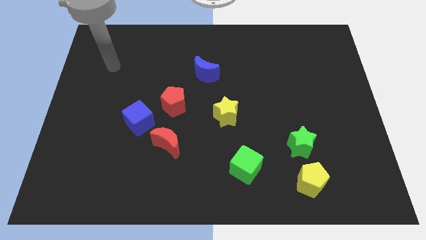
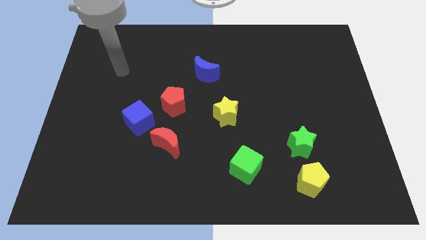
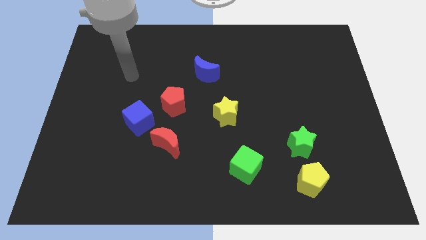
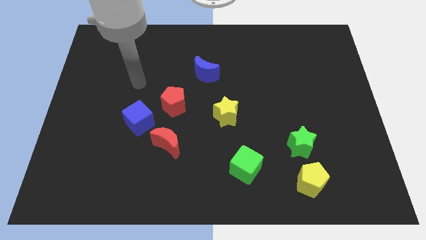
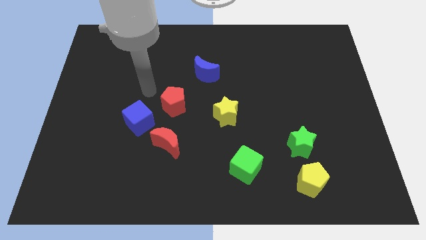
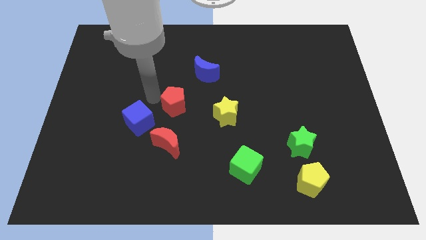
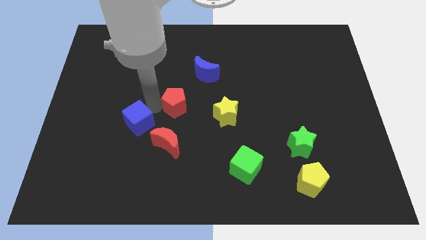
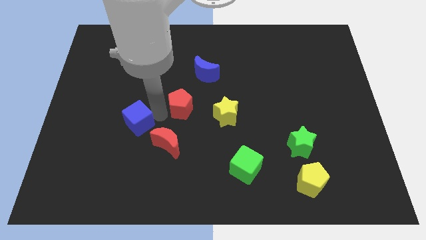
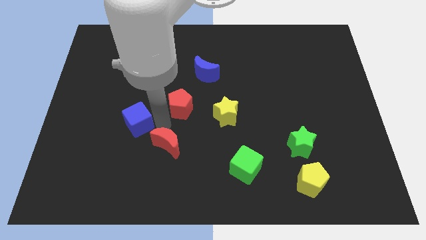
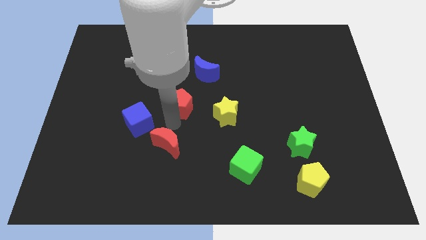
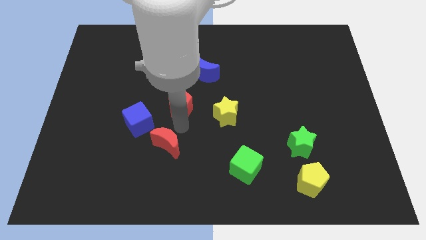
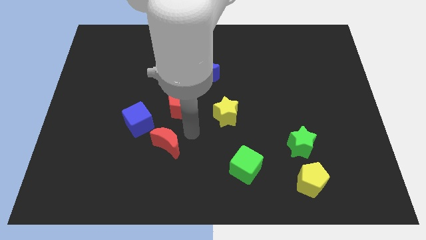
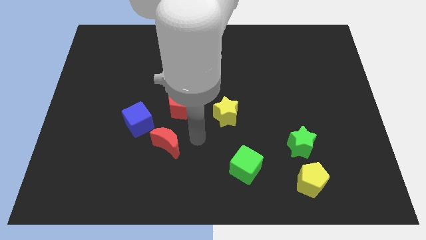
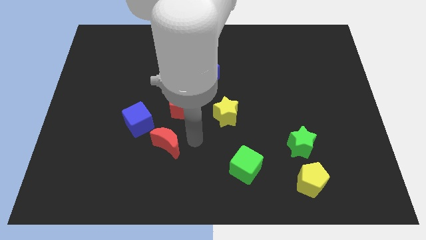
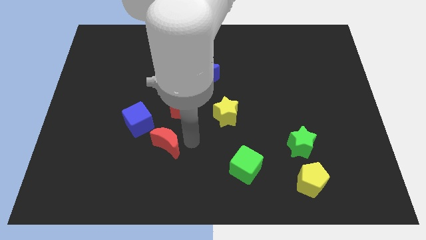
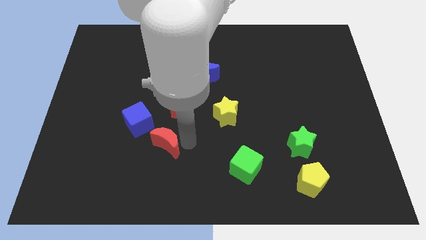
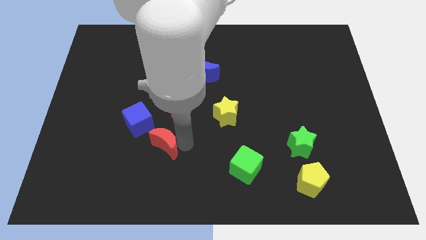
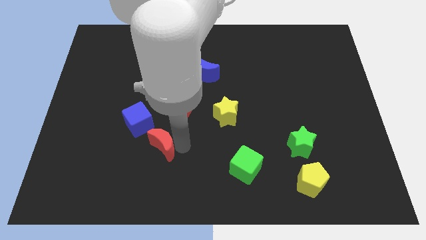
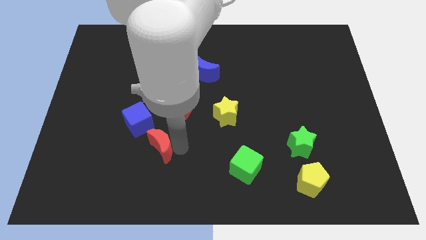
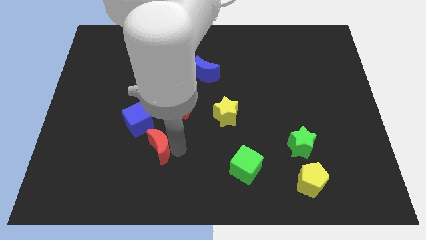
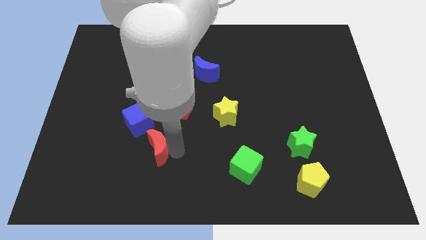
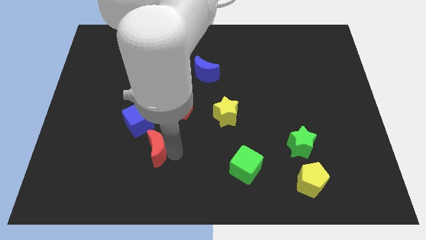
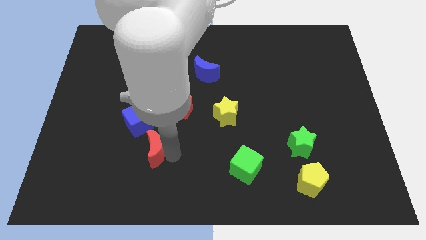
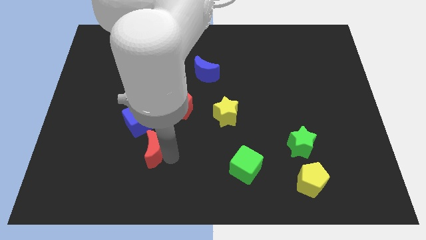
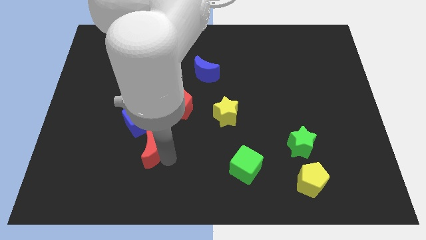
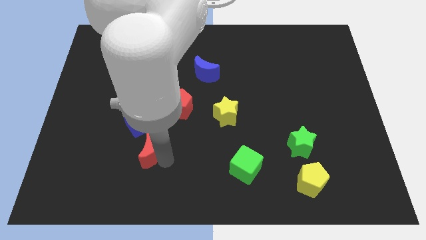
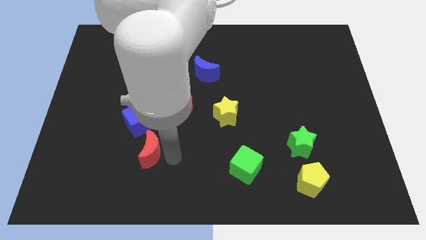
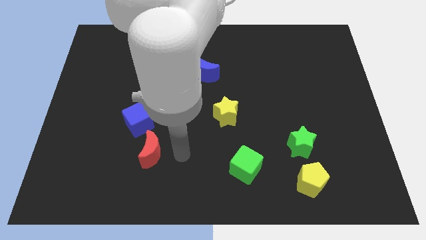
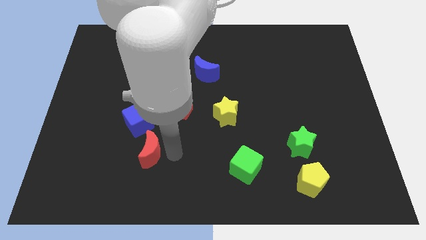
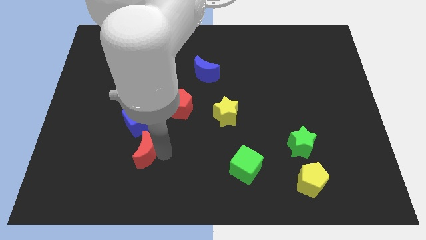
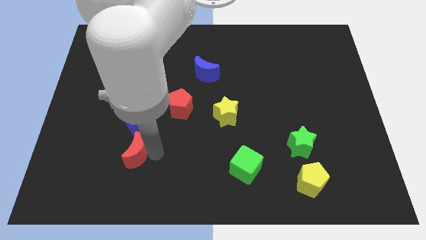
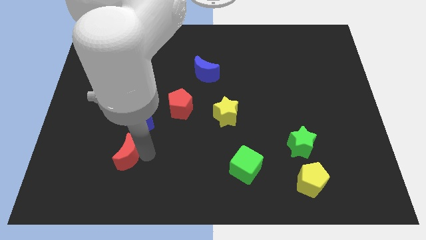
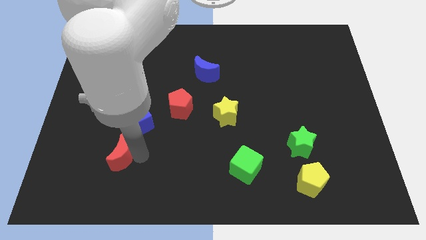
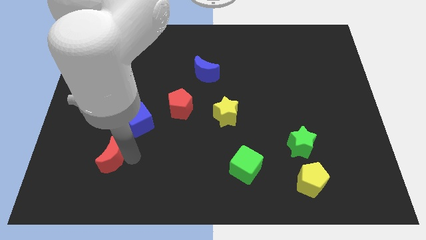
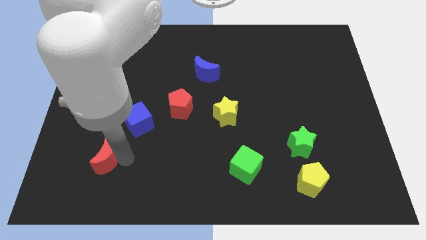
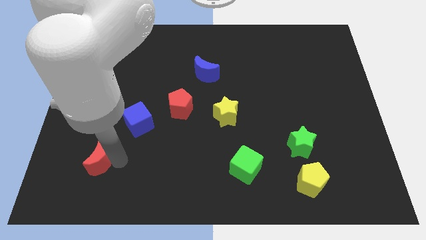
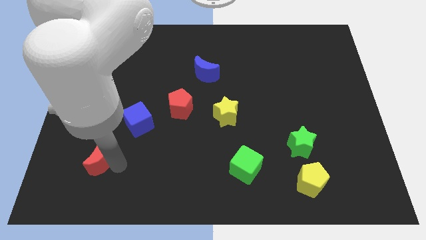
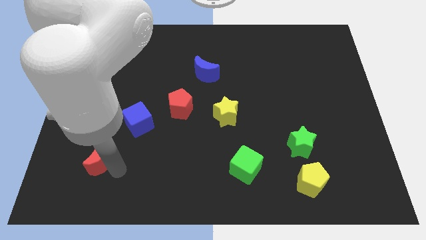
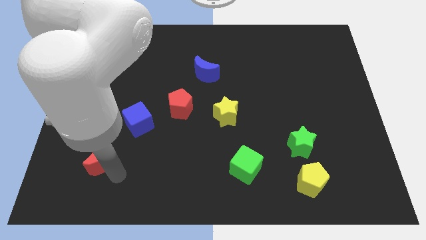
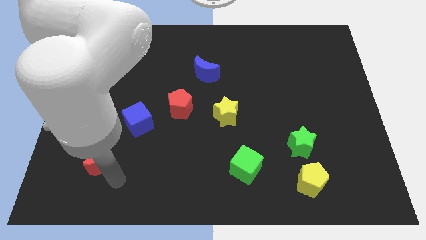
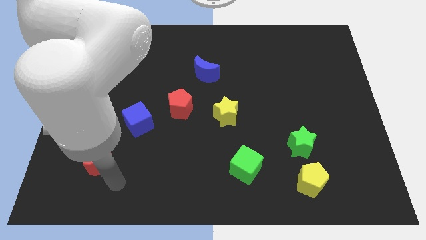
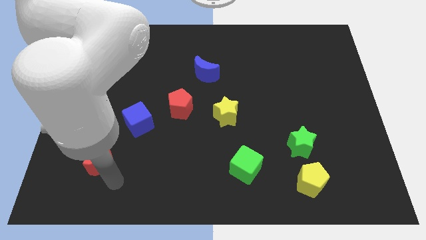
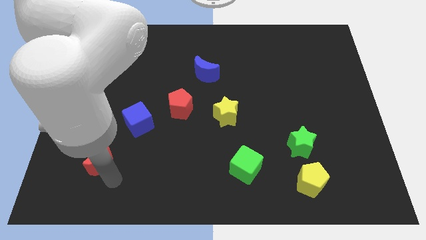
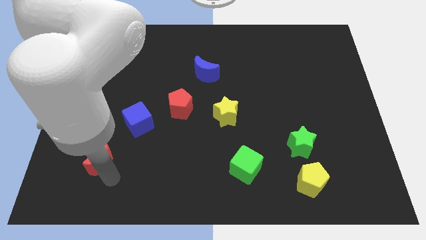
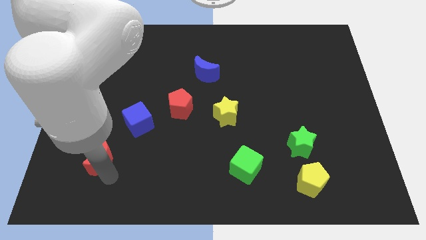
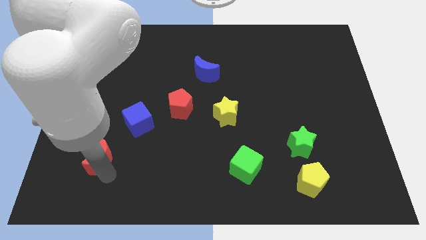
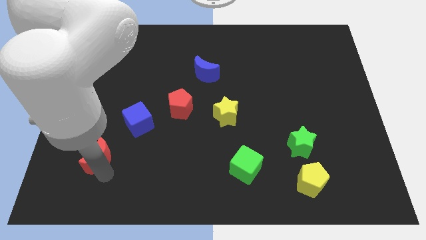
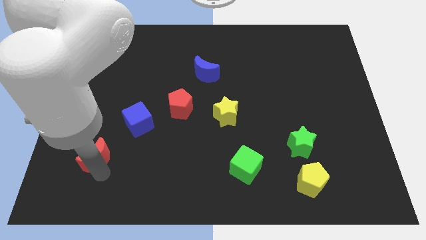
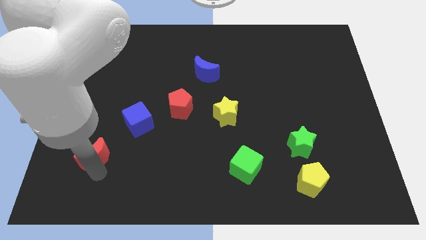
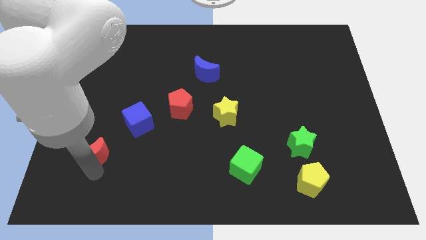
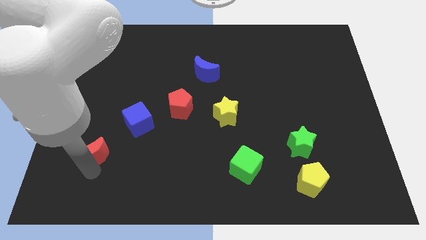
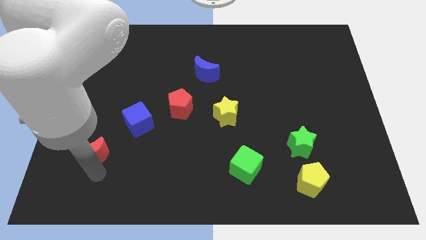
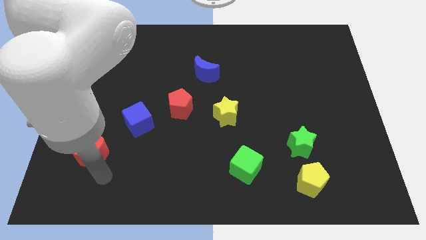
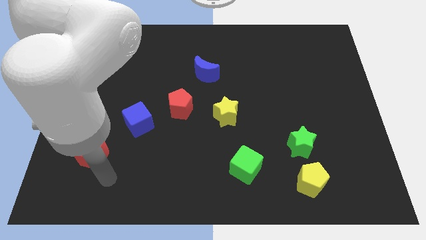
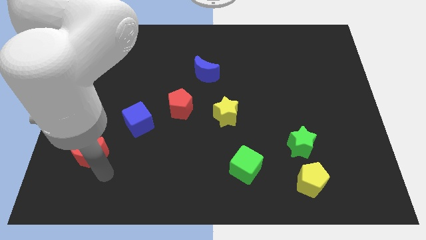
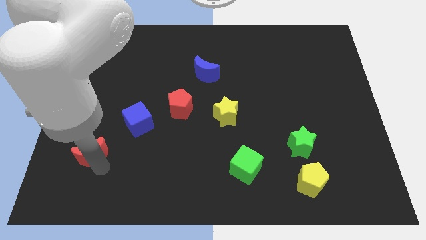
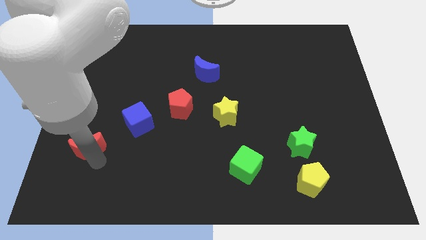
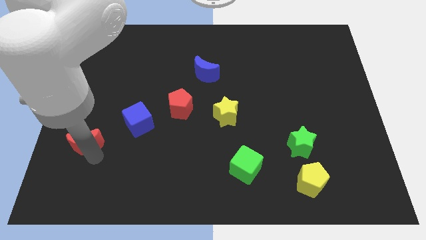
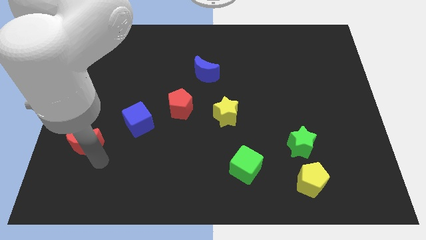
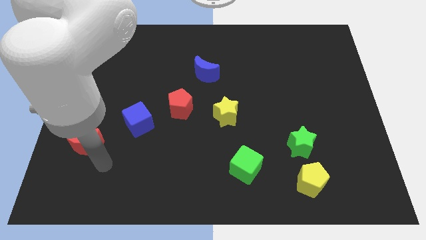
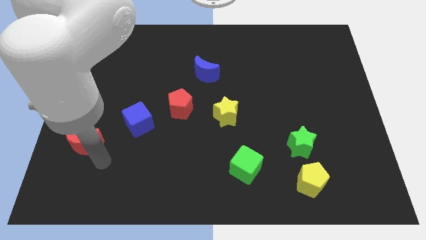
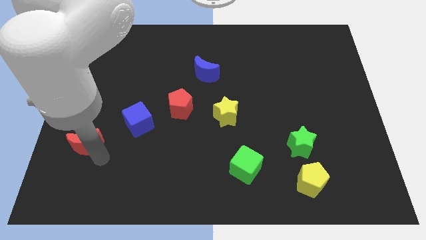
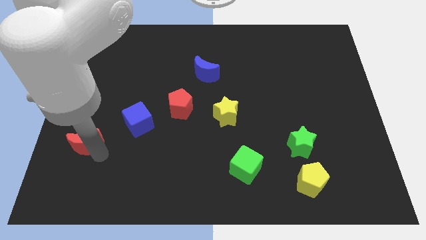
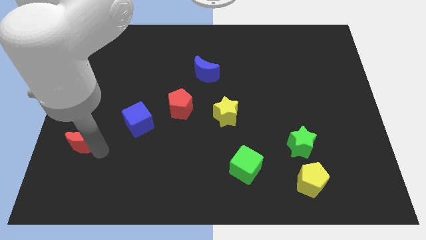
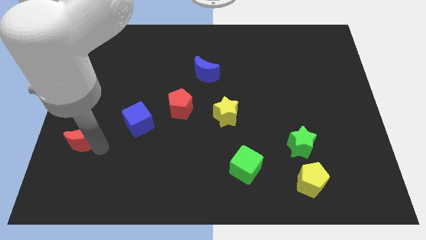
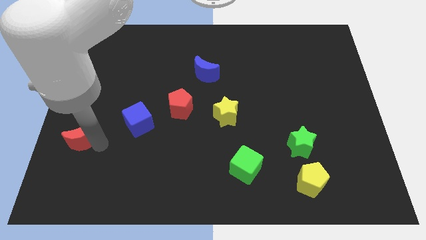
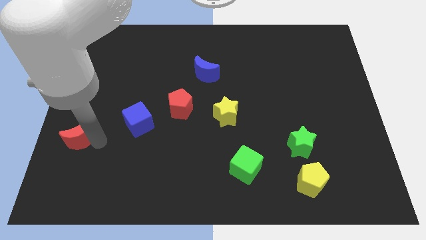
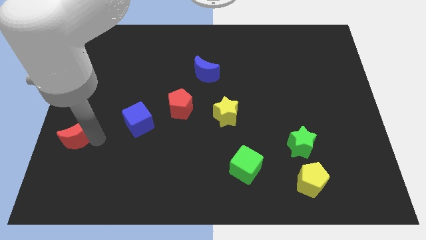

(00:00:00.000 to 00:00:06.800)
slide the red moon to the center left
